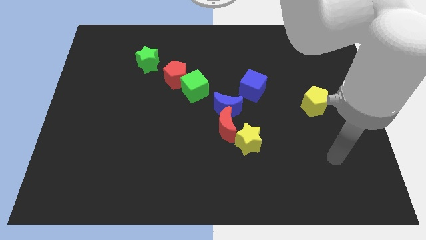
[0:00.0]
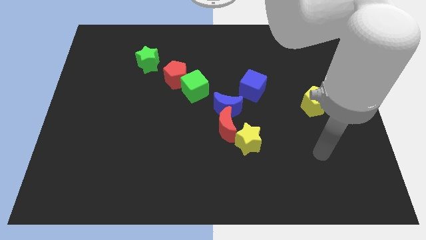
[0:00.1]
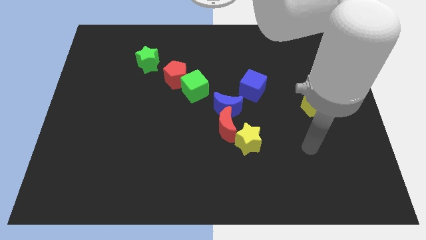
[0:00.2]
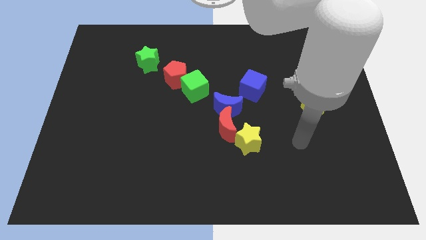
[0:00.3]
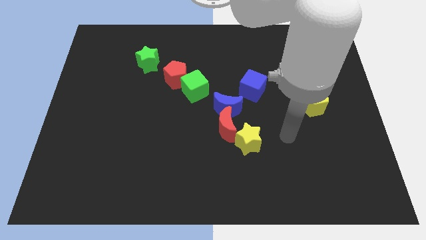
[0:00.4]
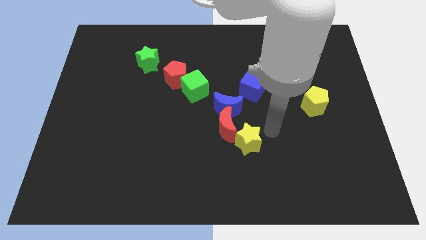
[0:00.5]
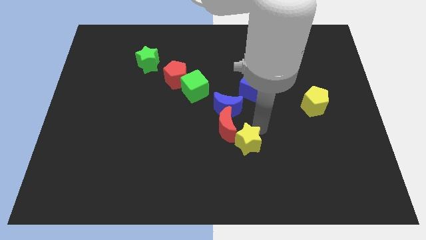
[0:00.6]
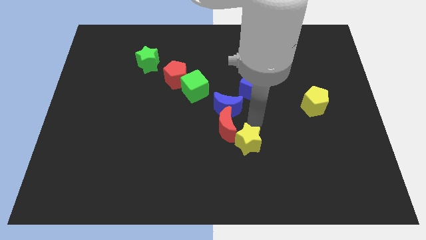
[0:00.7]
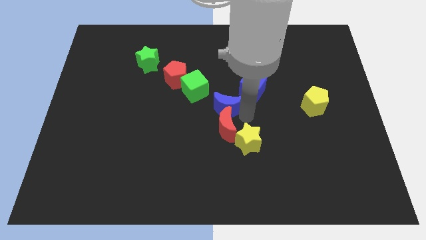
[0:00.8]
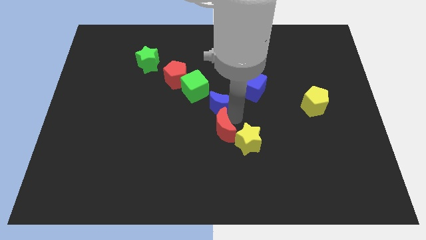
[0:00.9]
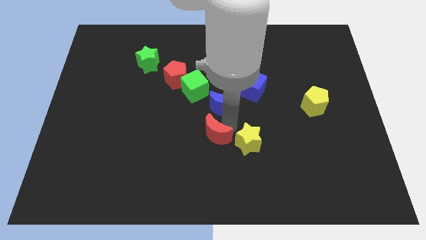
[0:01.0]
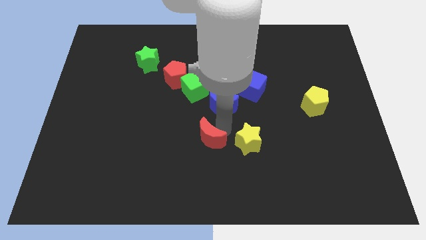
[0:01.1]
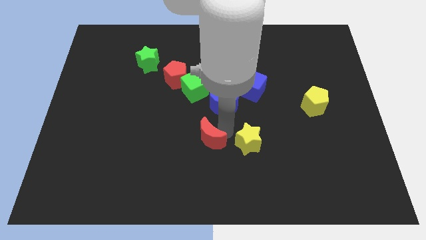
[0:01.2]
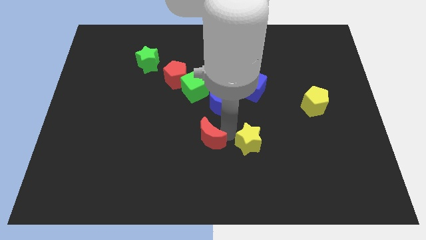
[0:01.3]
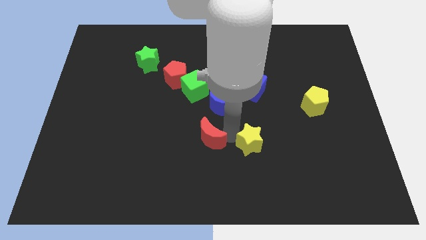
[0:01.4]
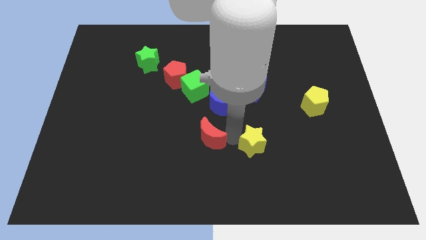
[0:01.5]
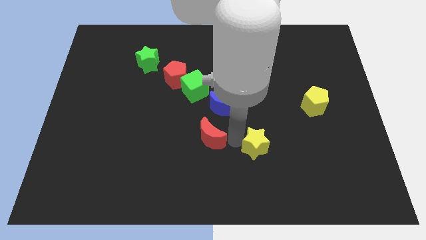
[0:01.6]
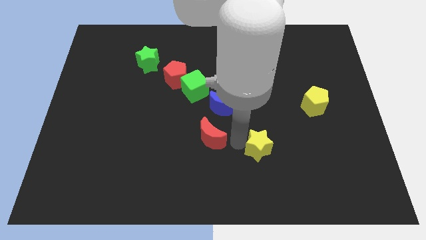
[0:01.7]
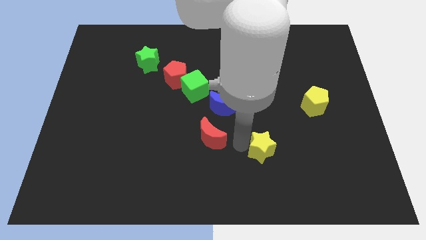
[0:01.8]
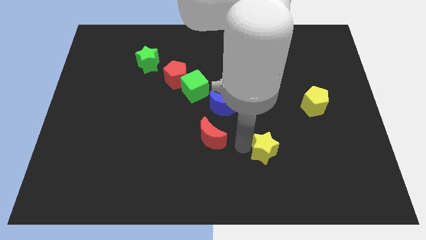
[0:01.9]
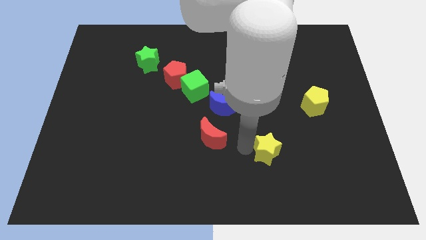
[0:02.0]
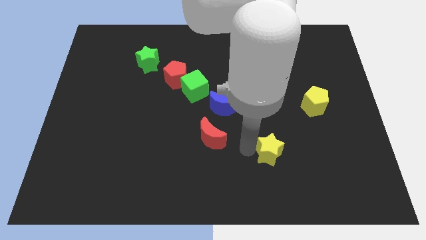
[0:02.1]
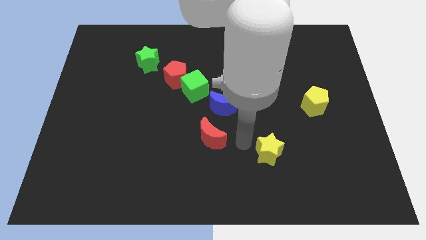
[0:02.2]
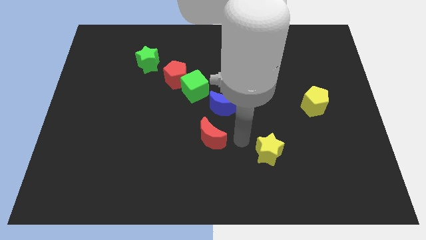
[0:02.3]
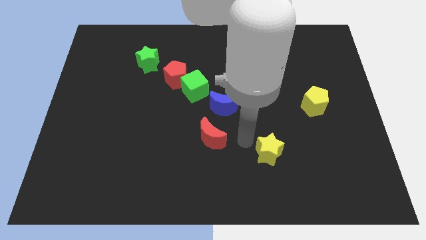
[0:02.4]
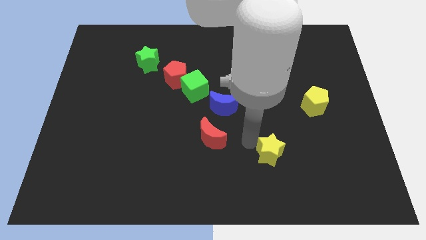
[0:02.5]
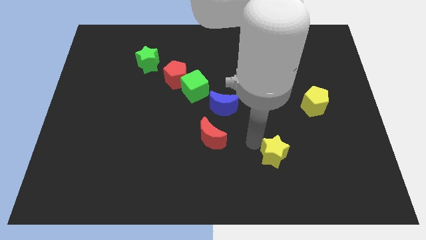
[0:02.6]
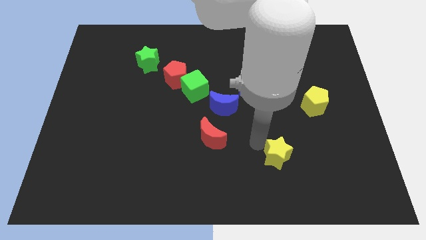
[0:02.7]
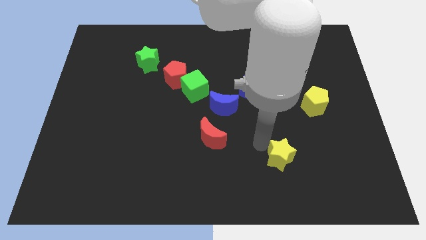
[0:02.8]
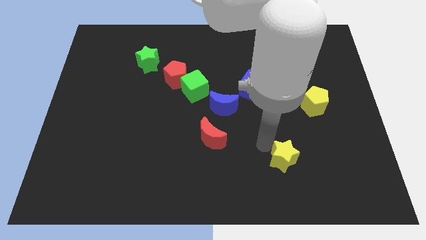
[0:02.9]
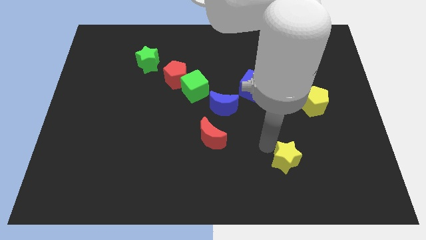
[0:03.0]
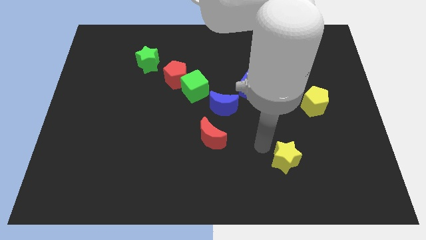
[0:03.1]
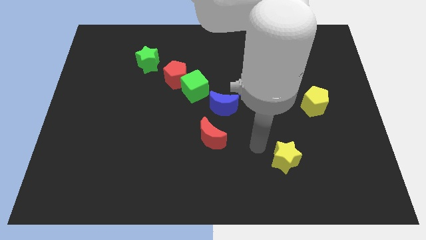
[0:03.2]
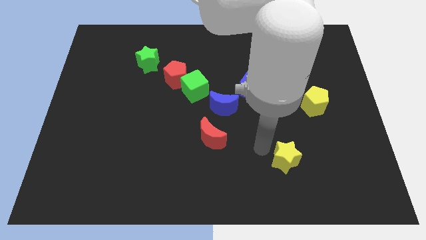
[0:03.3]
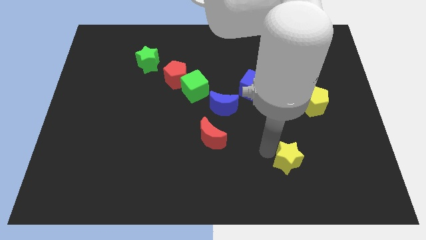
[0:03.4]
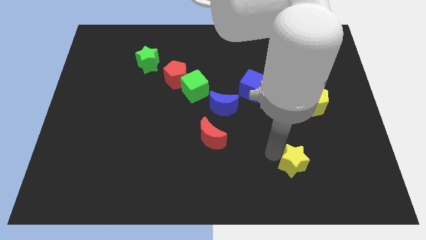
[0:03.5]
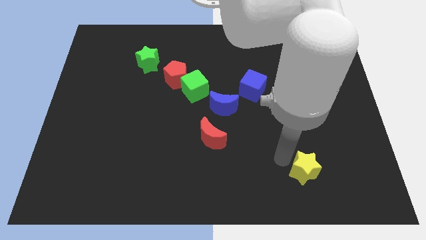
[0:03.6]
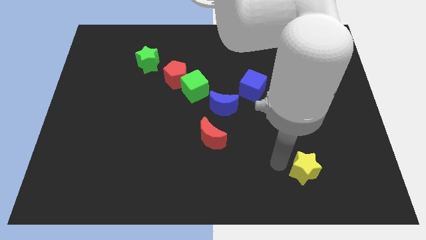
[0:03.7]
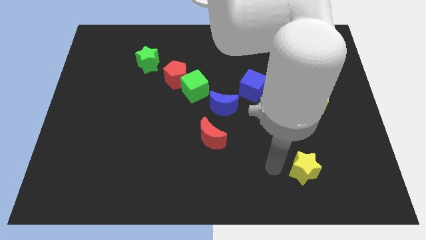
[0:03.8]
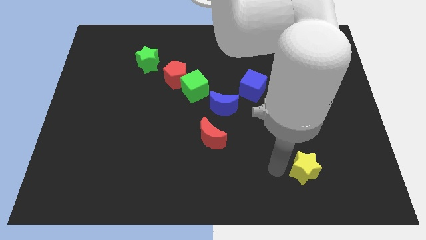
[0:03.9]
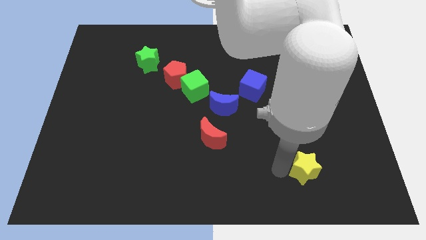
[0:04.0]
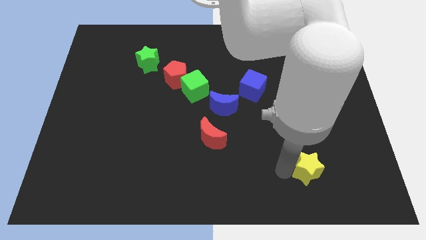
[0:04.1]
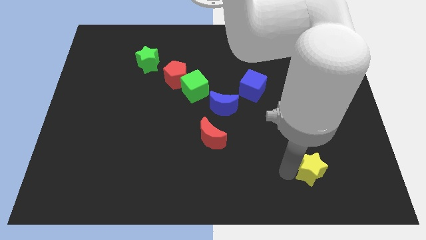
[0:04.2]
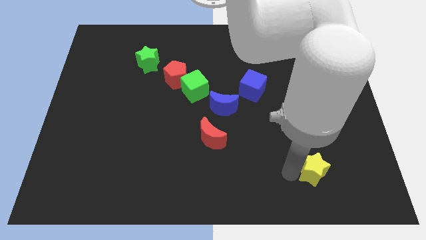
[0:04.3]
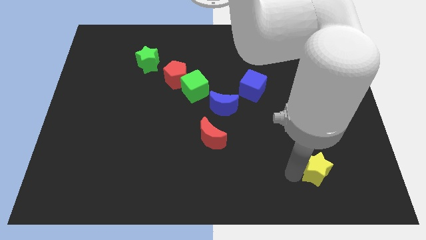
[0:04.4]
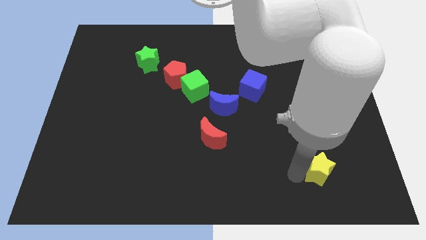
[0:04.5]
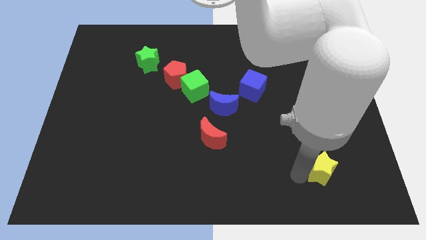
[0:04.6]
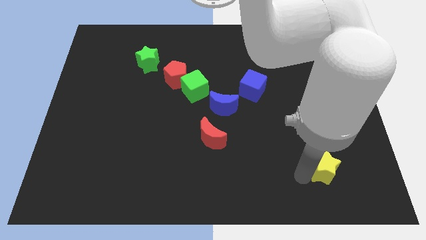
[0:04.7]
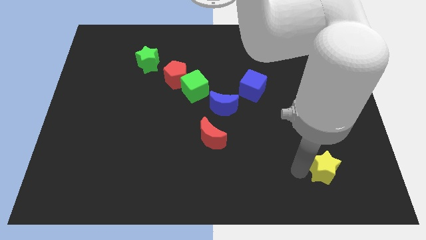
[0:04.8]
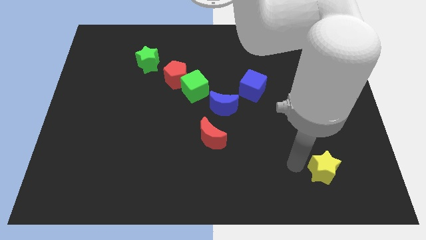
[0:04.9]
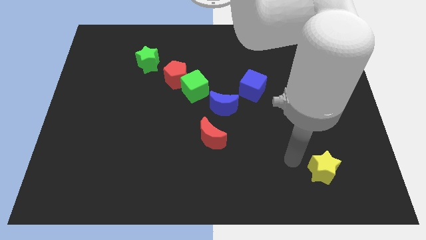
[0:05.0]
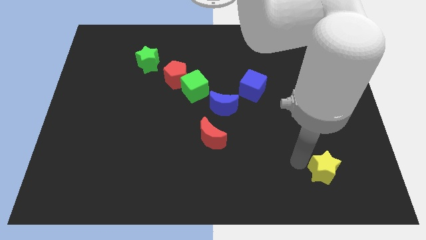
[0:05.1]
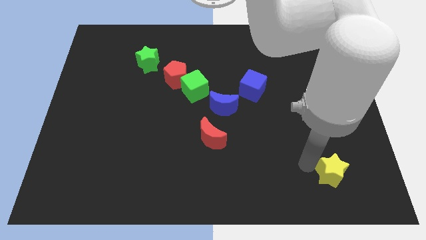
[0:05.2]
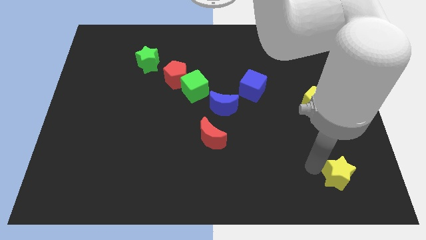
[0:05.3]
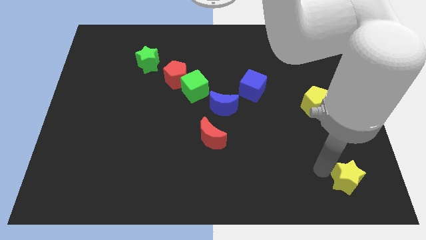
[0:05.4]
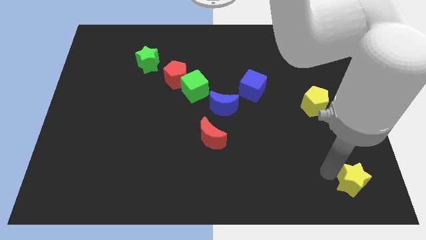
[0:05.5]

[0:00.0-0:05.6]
move the yellow star to the bottom right corner

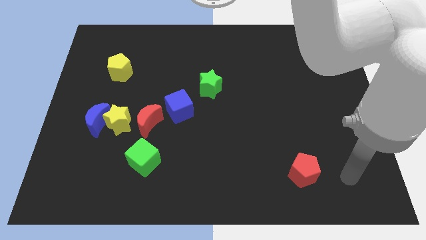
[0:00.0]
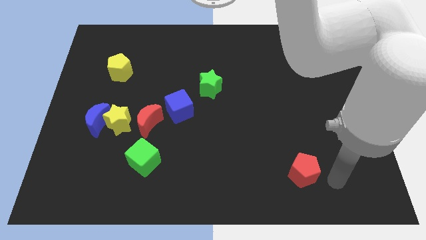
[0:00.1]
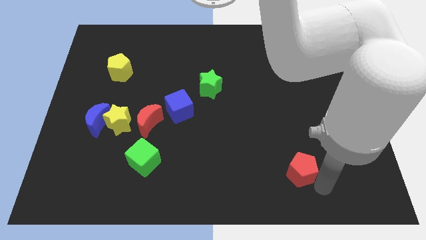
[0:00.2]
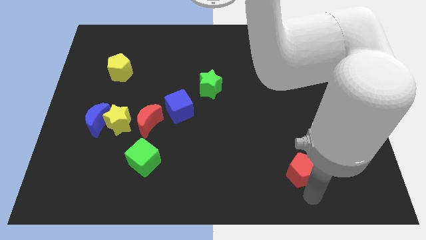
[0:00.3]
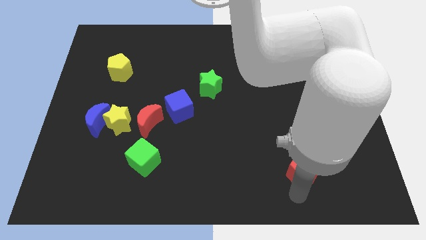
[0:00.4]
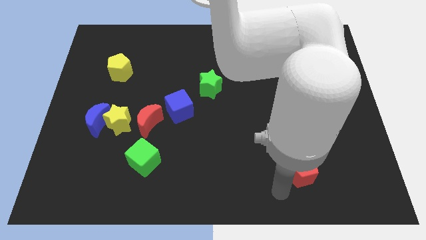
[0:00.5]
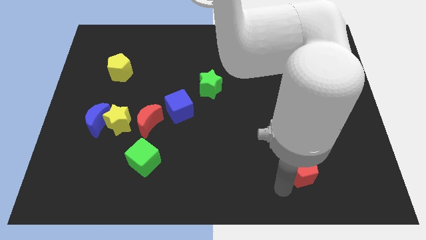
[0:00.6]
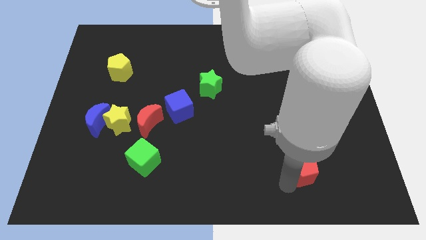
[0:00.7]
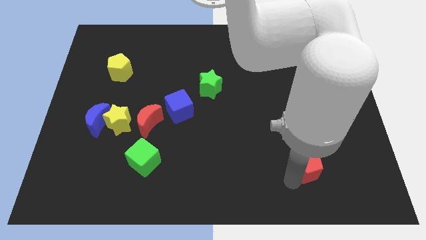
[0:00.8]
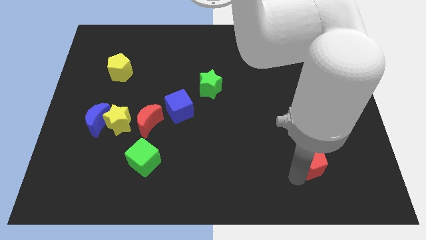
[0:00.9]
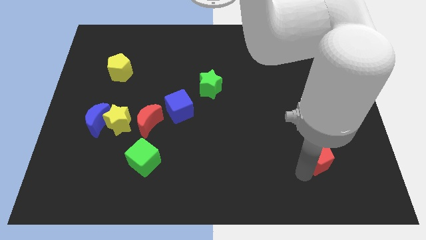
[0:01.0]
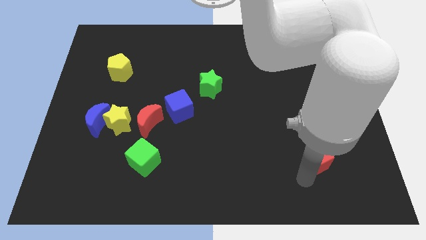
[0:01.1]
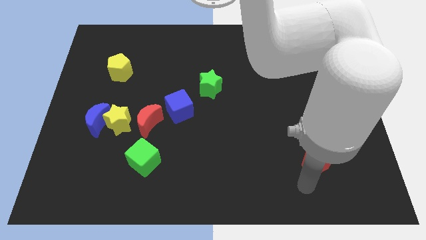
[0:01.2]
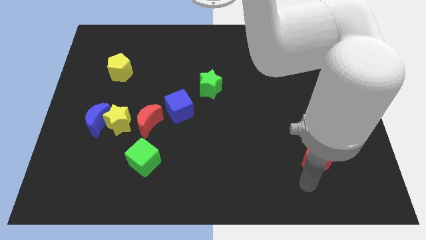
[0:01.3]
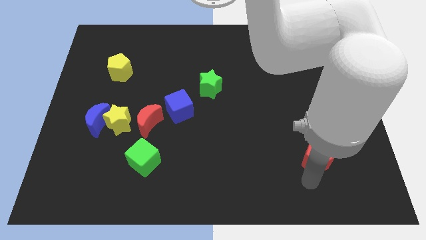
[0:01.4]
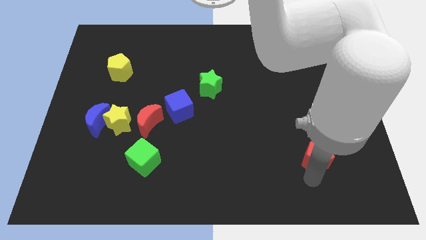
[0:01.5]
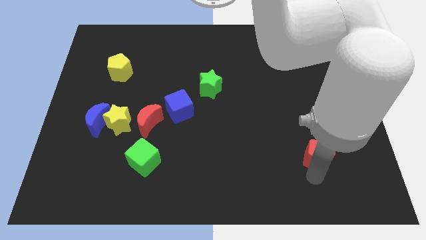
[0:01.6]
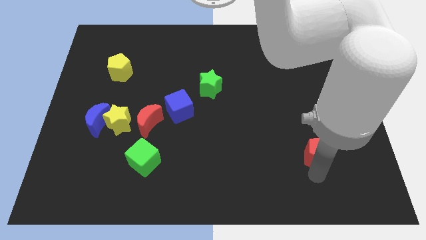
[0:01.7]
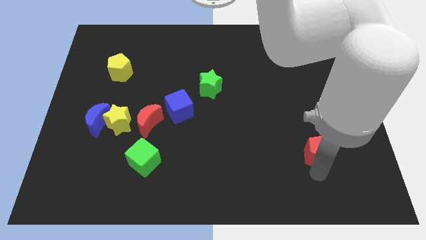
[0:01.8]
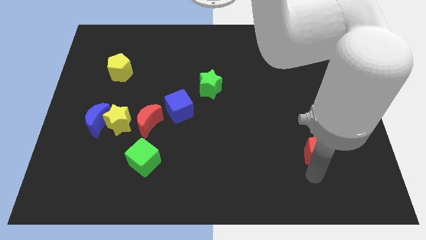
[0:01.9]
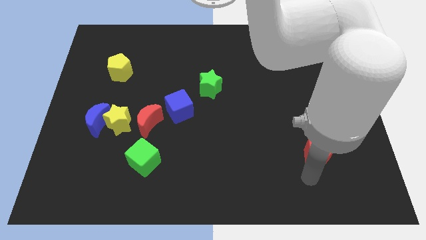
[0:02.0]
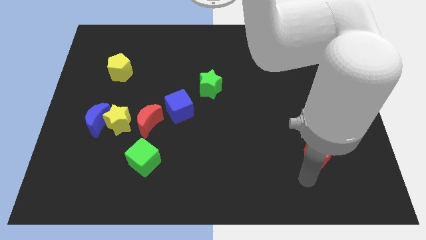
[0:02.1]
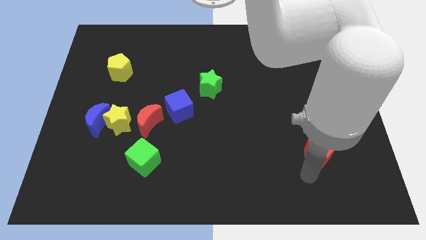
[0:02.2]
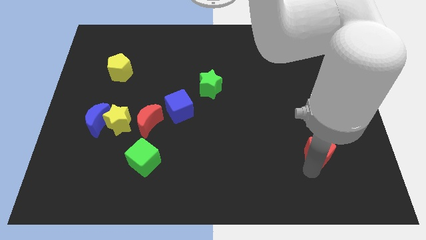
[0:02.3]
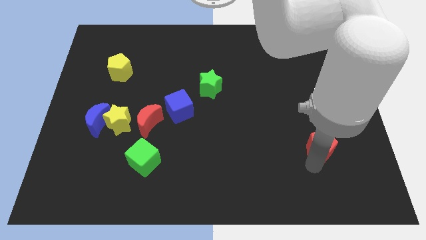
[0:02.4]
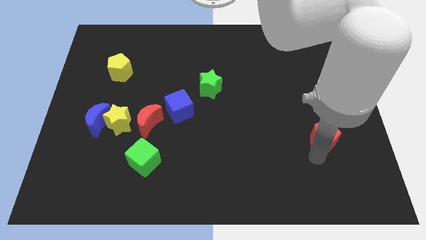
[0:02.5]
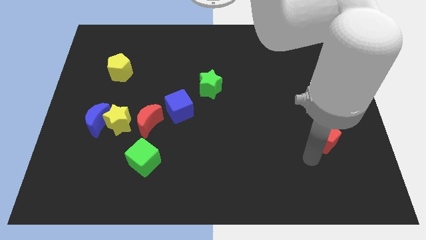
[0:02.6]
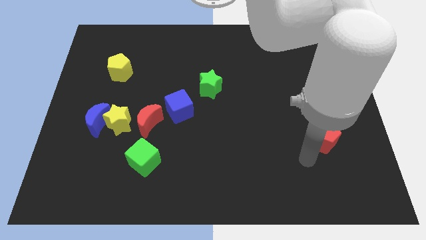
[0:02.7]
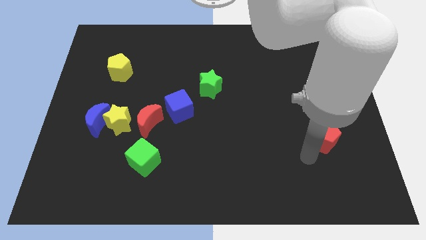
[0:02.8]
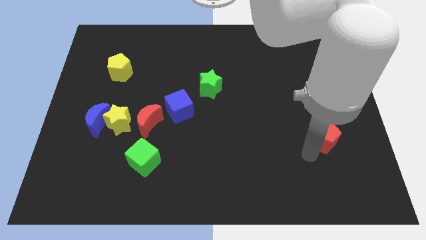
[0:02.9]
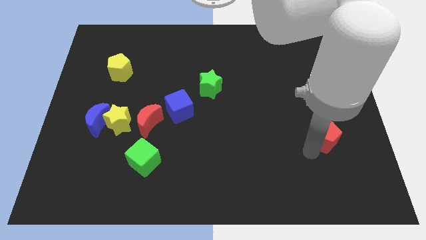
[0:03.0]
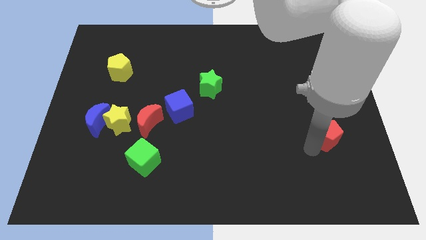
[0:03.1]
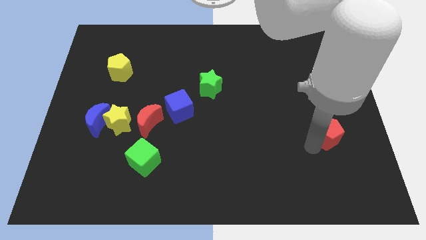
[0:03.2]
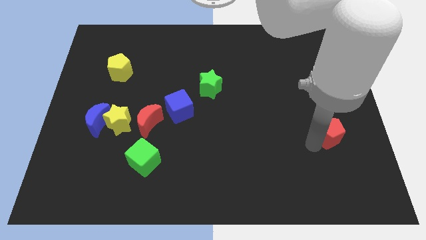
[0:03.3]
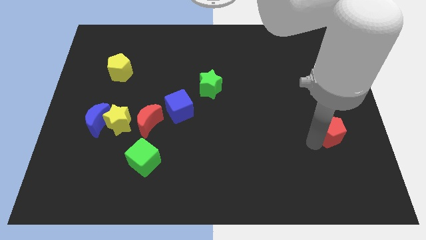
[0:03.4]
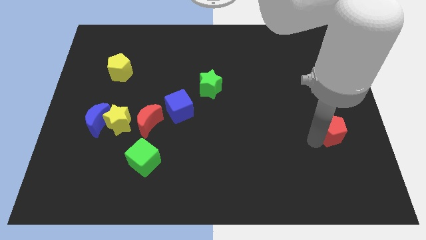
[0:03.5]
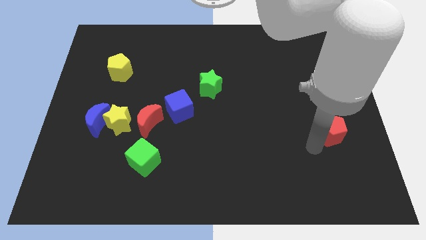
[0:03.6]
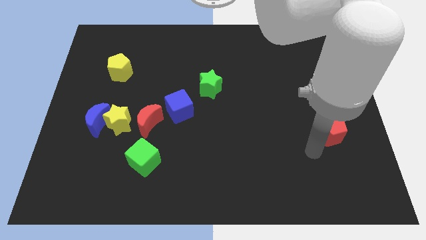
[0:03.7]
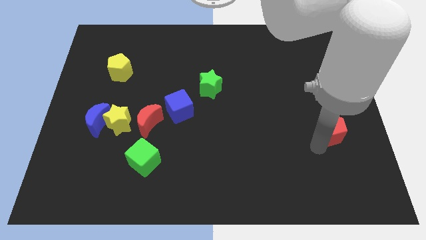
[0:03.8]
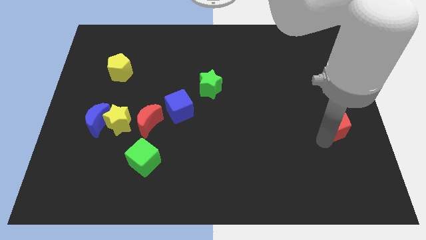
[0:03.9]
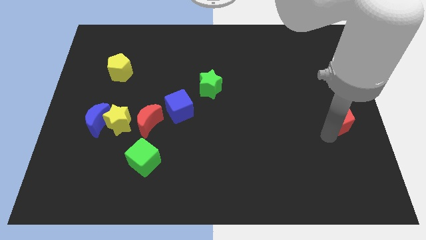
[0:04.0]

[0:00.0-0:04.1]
move the red pentagon to the right side
